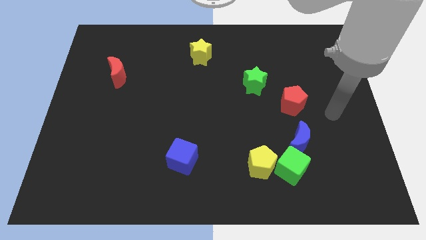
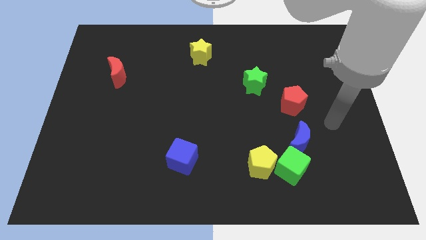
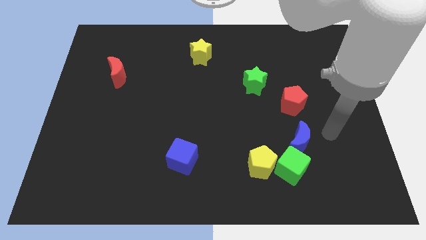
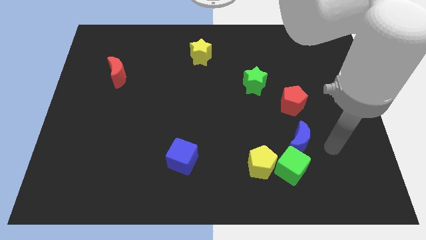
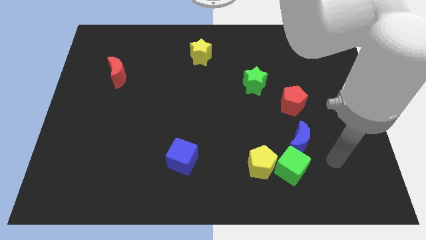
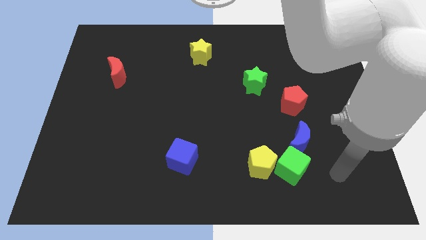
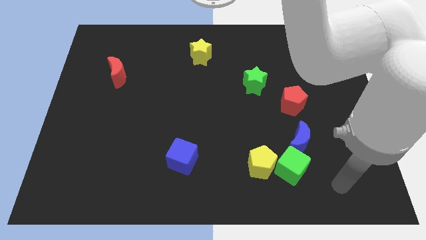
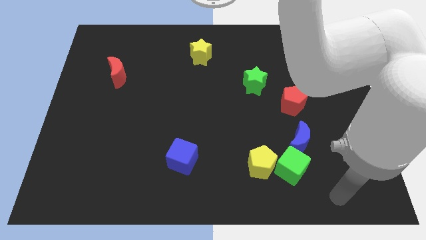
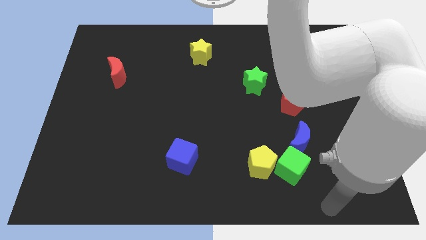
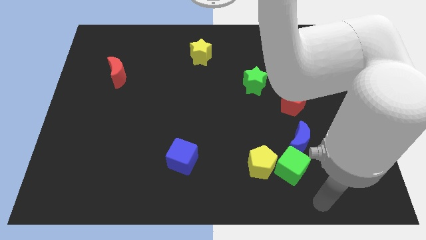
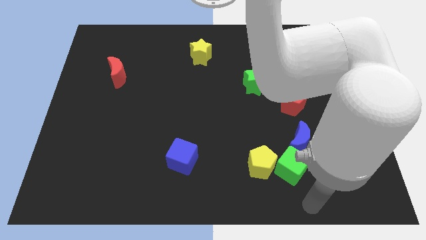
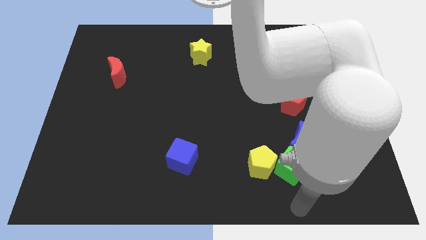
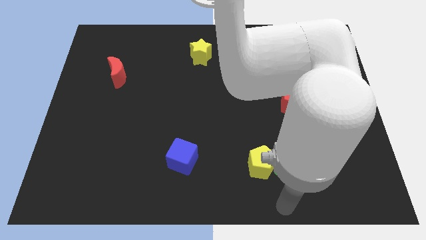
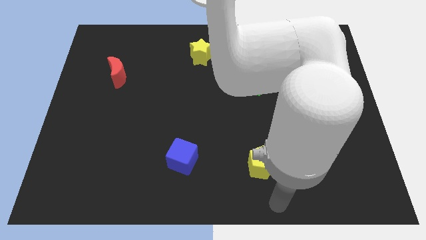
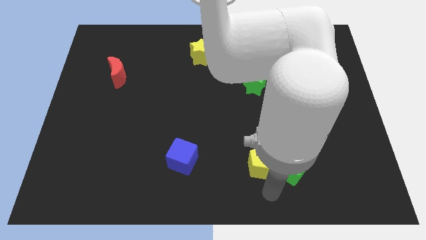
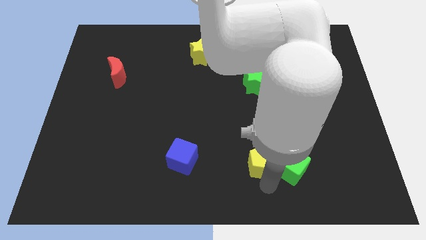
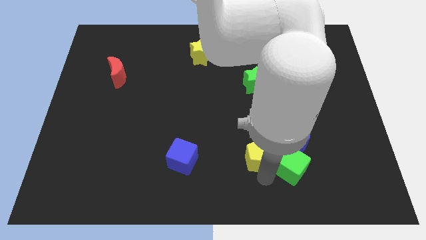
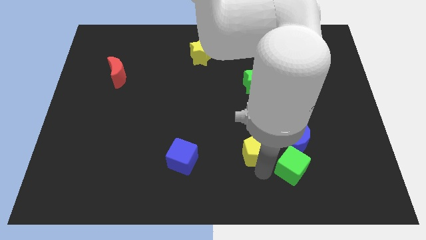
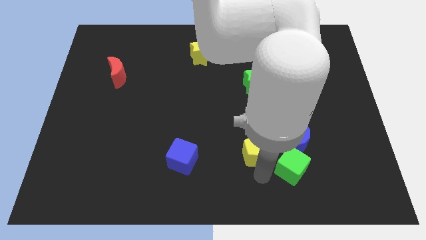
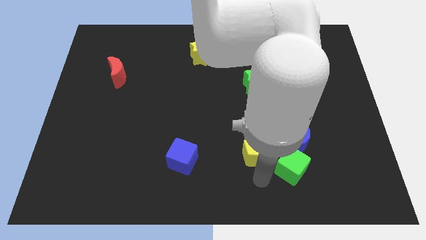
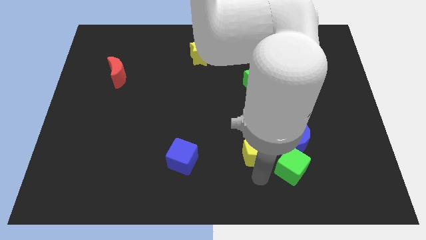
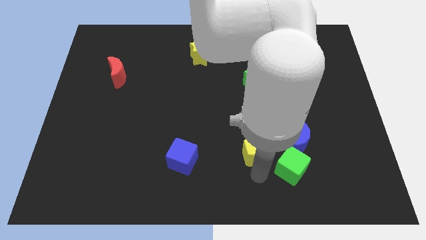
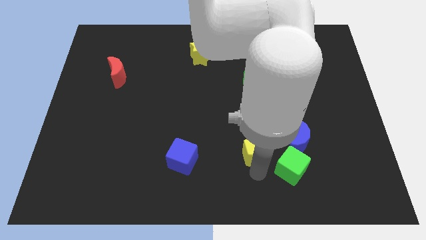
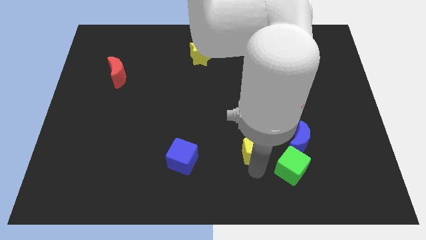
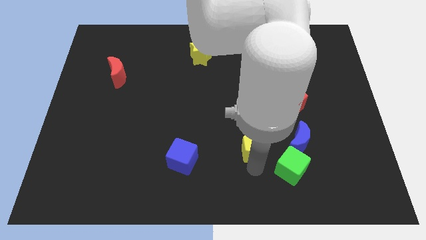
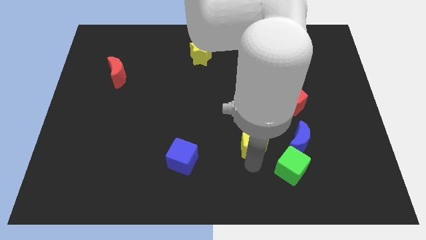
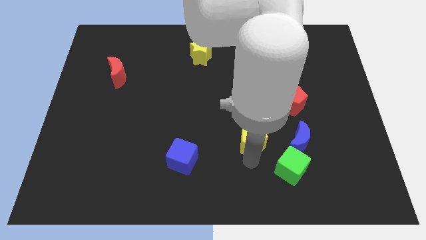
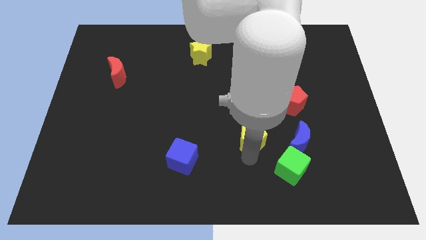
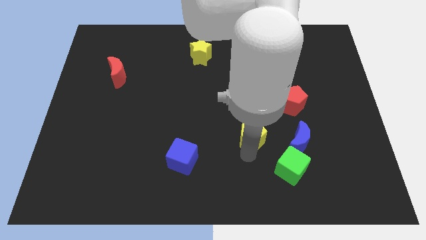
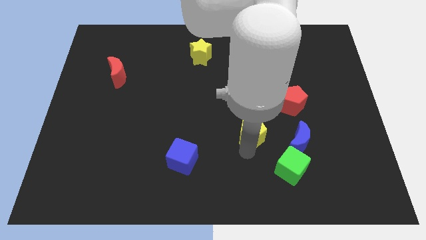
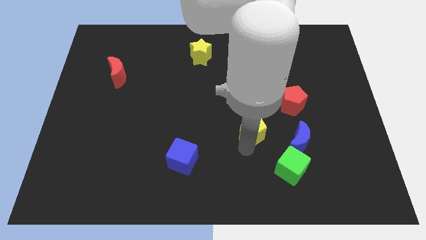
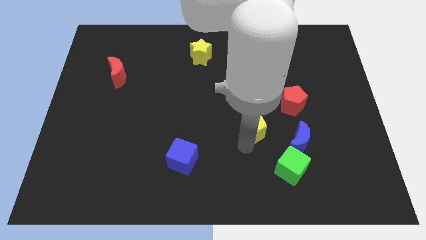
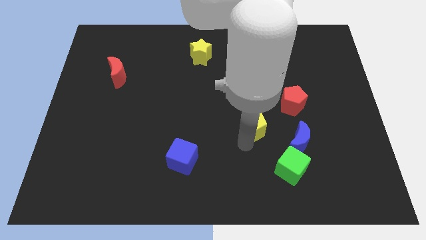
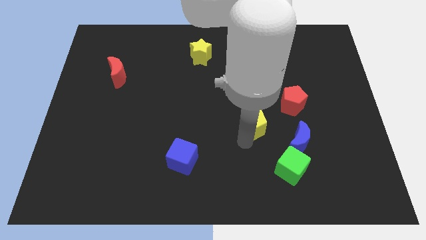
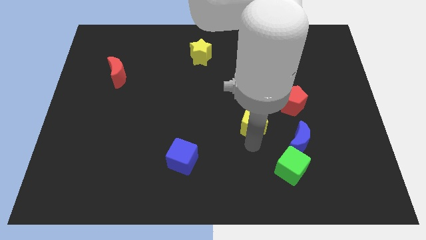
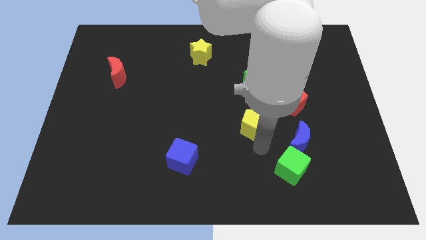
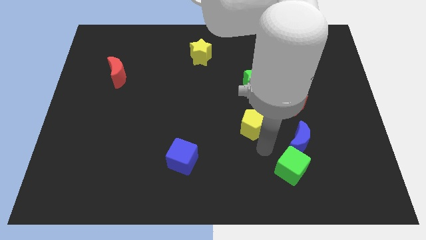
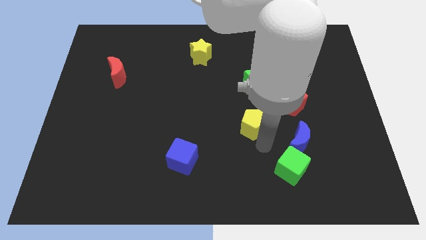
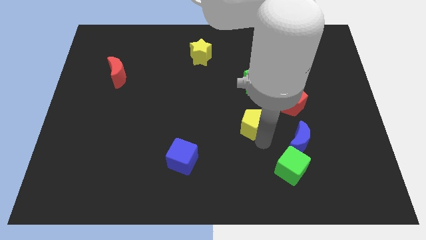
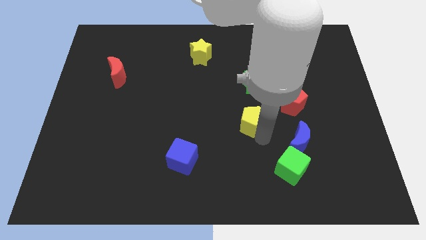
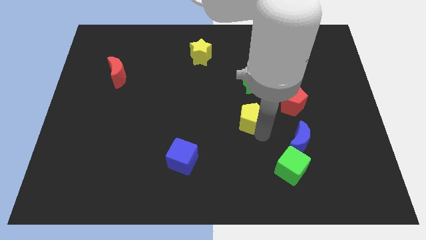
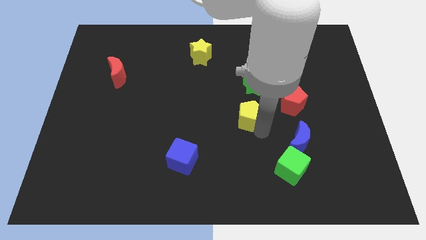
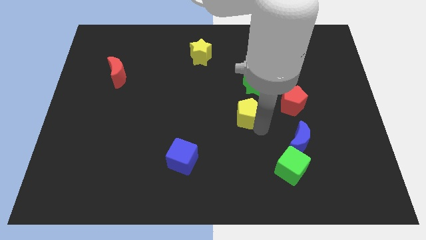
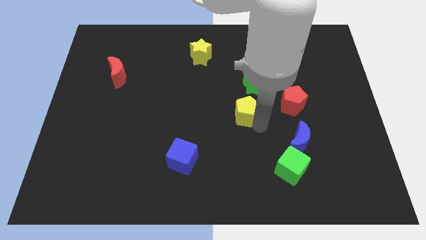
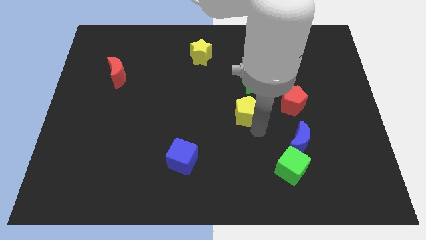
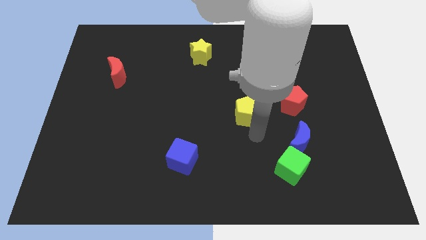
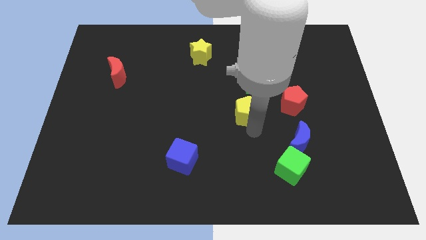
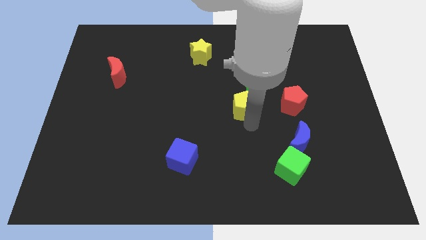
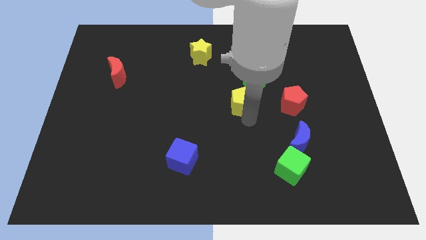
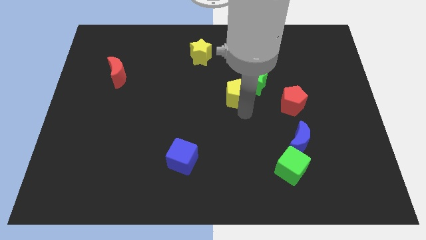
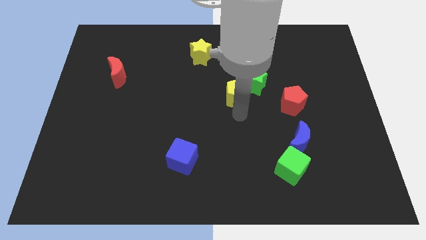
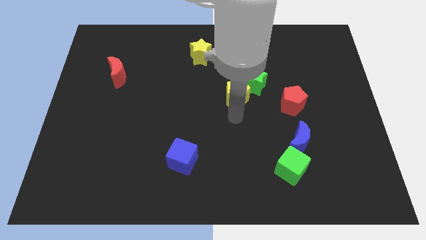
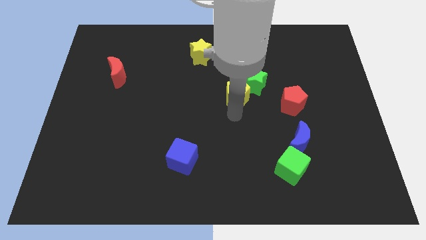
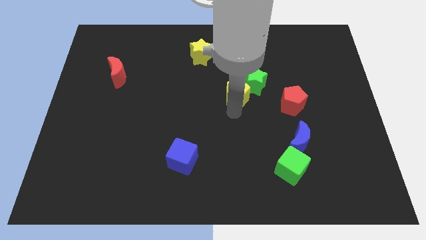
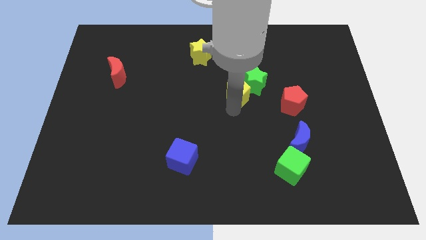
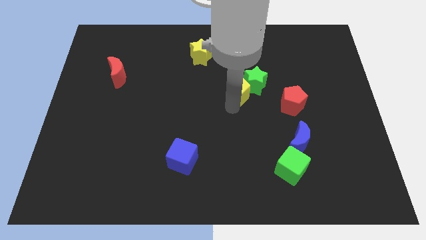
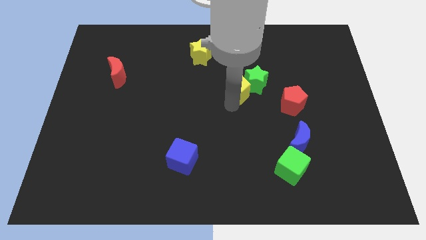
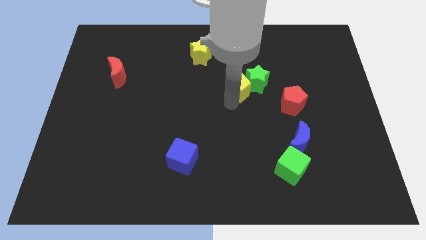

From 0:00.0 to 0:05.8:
move the yellow pentagon upwards

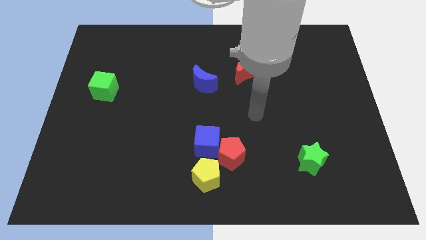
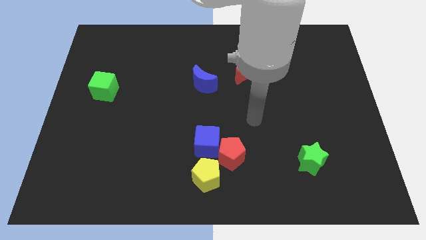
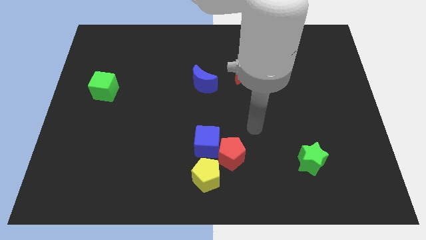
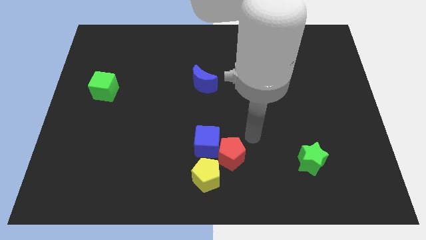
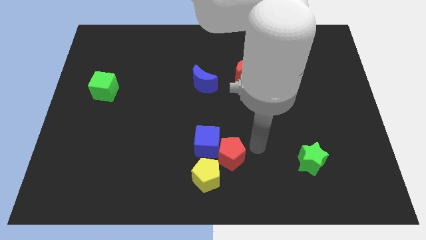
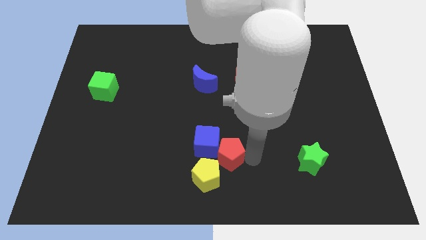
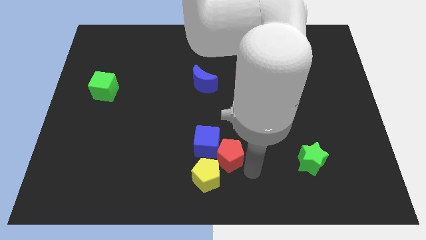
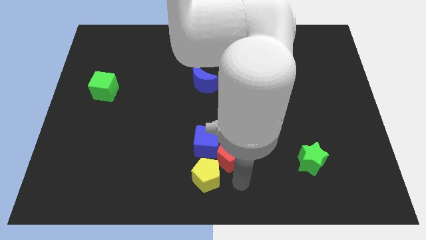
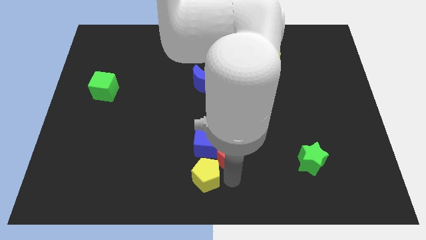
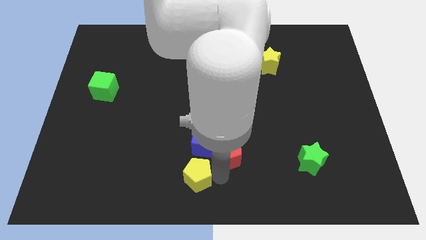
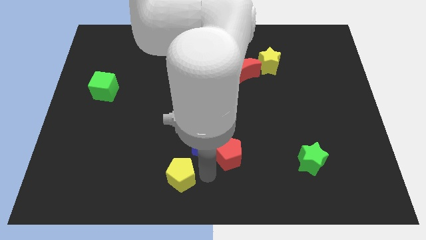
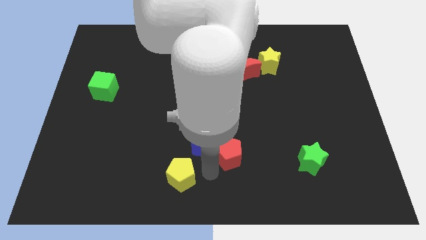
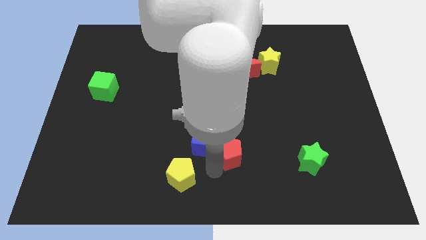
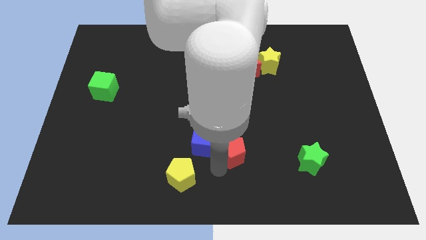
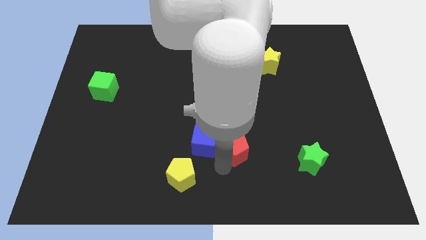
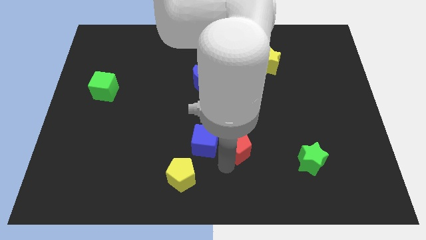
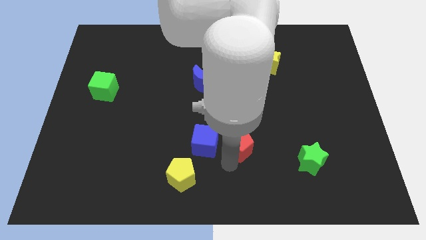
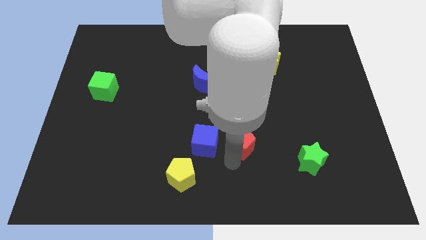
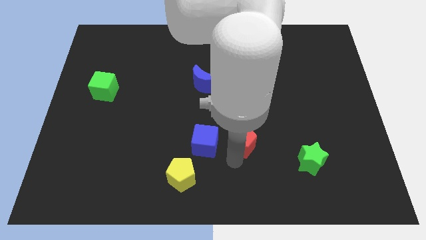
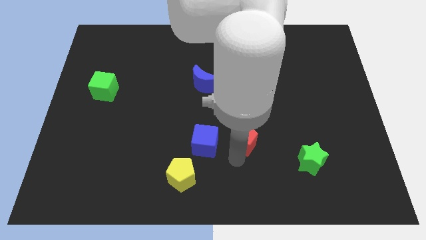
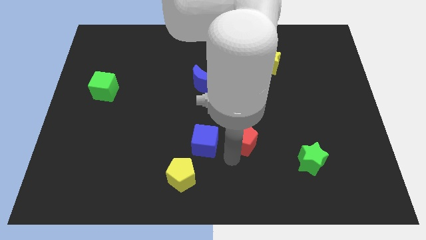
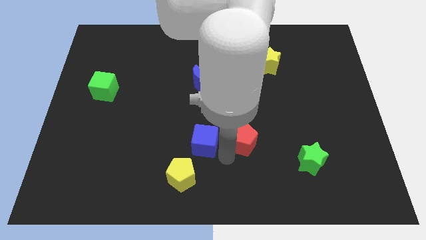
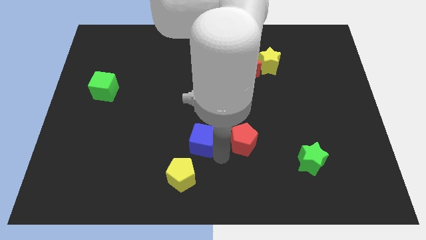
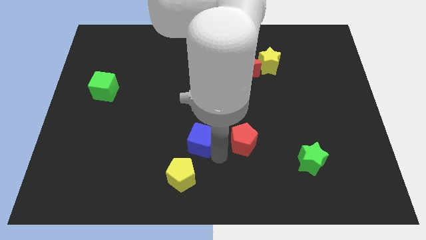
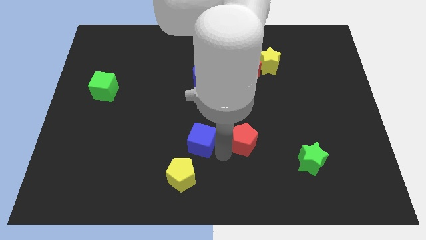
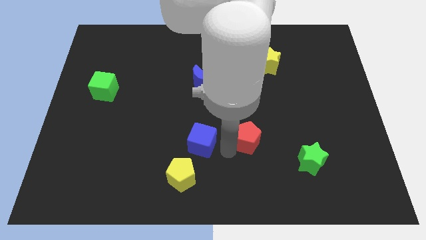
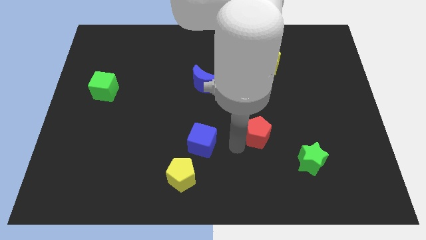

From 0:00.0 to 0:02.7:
move the red pentagon somewhat upwards and then right
